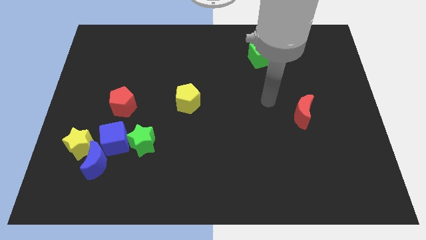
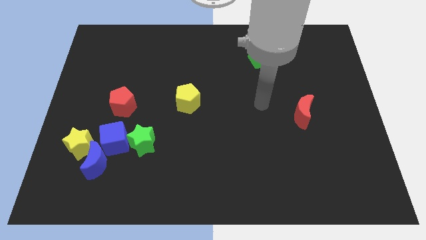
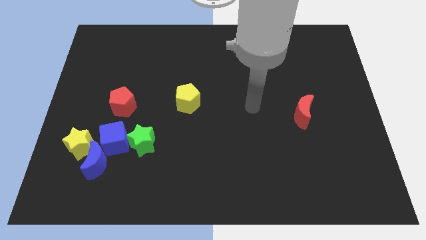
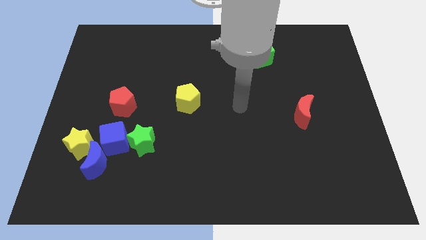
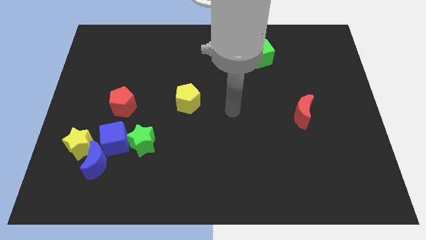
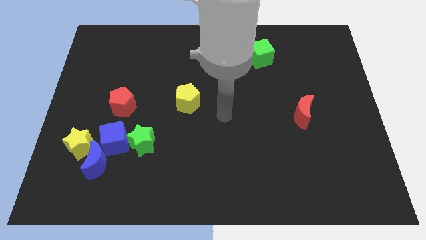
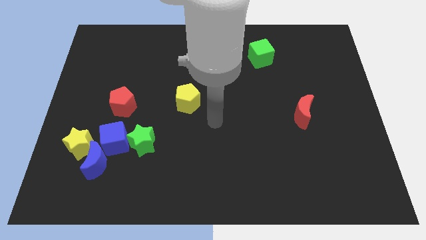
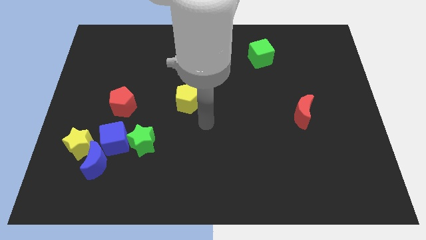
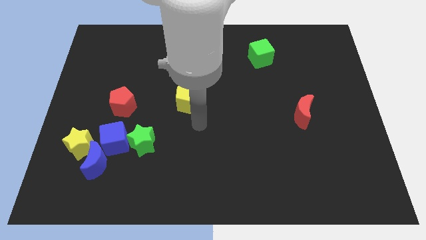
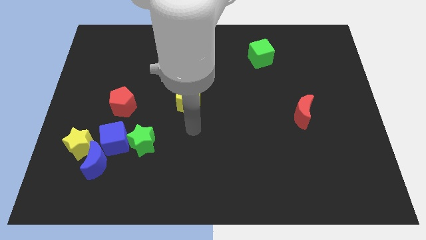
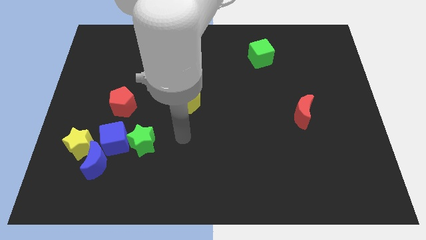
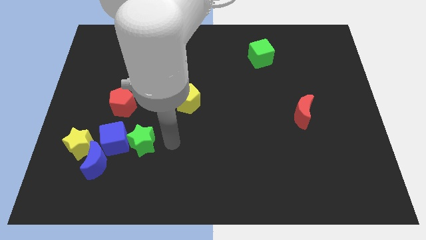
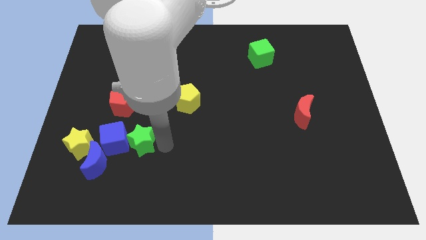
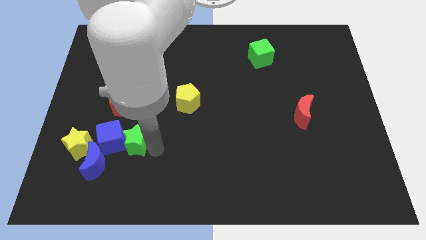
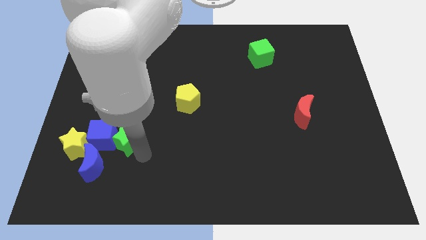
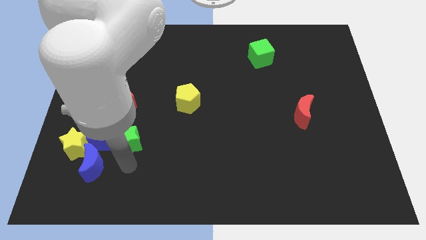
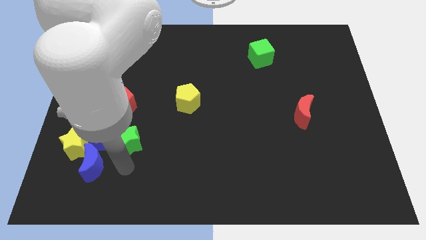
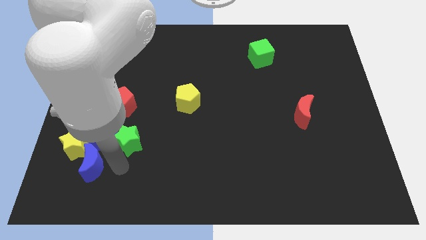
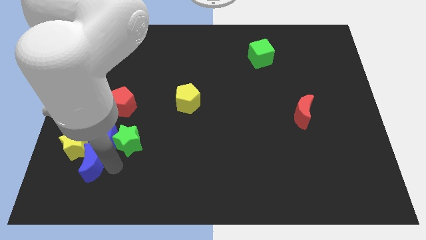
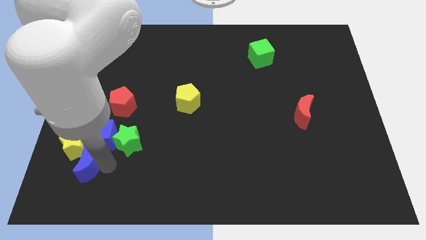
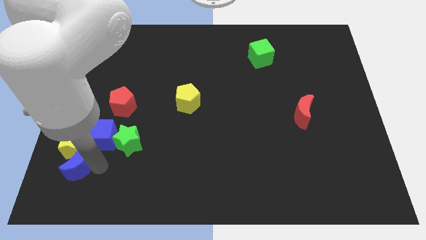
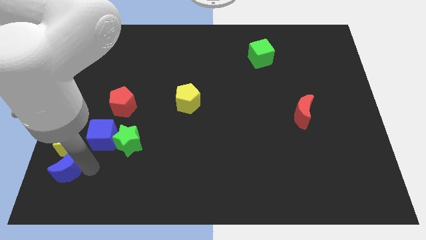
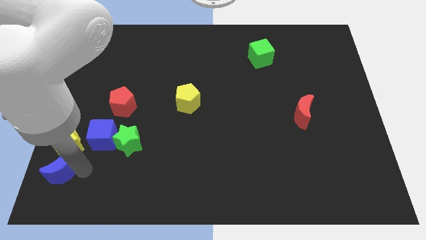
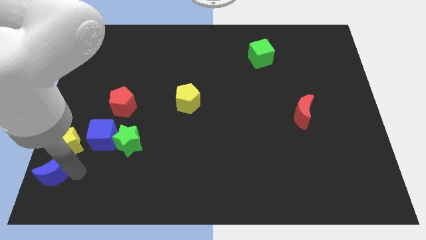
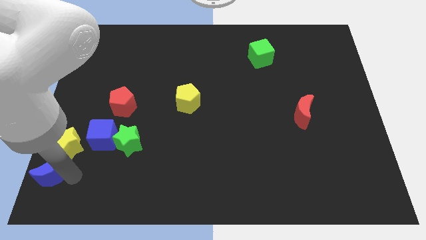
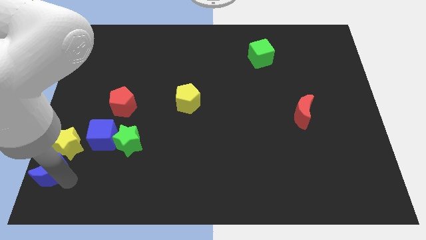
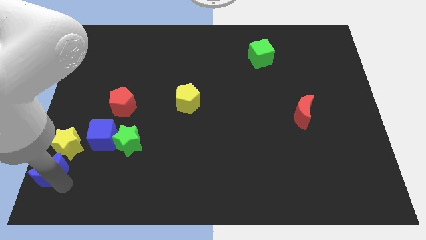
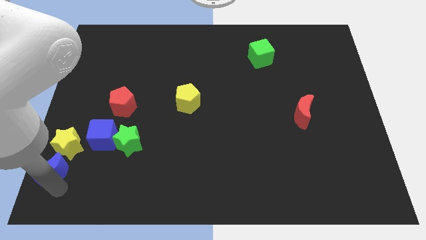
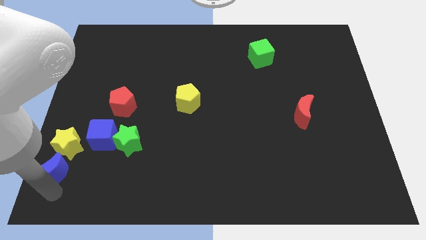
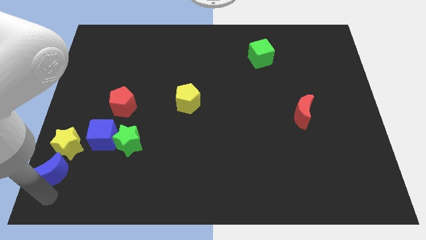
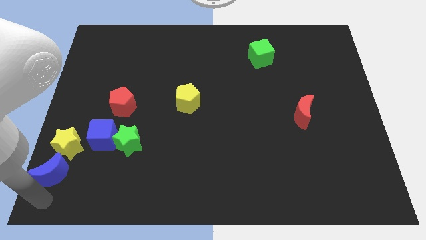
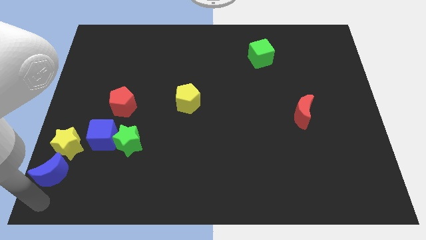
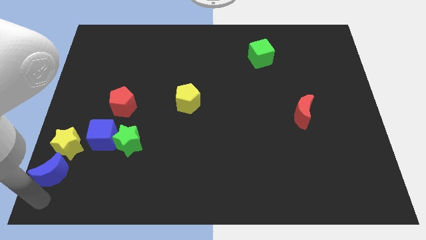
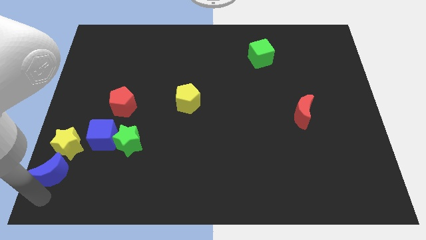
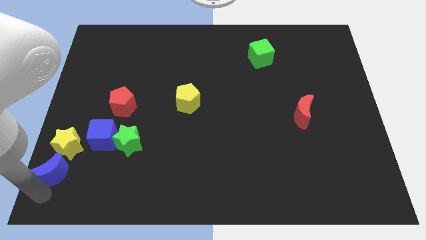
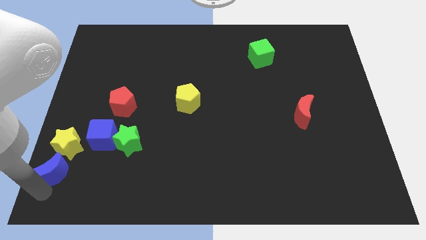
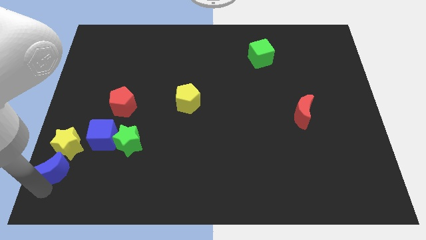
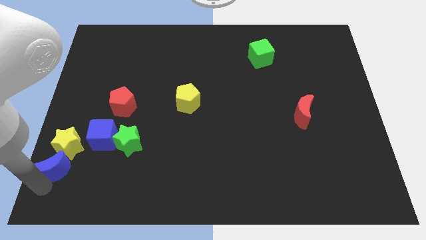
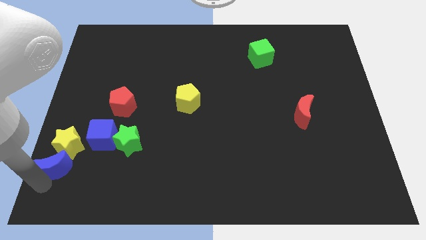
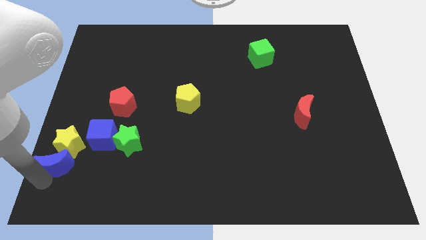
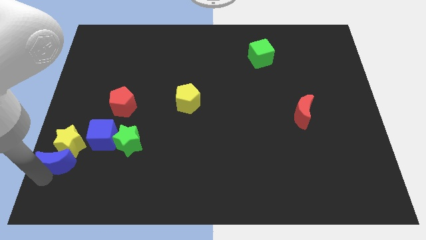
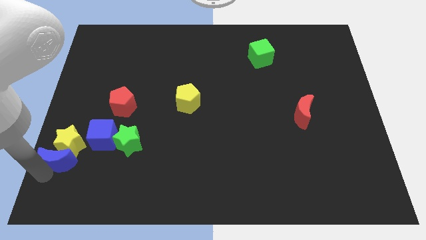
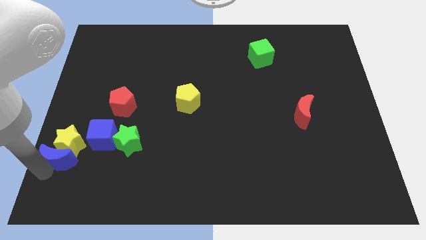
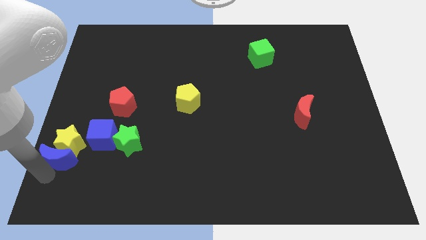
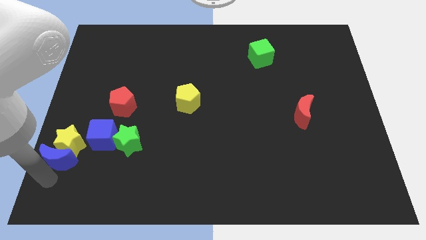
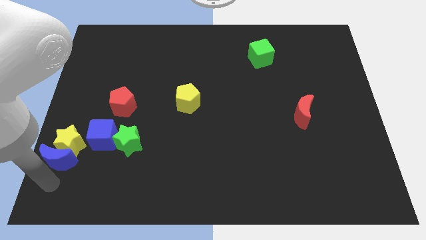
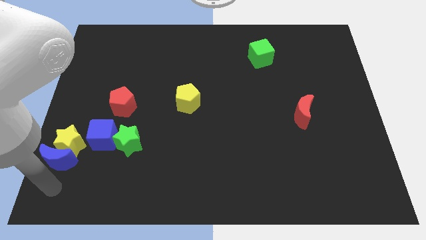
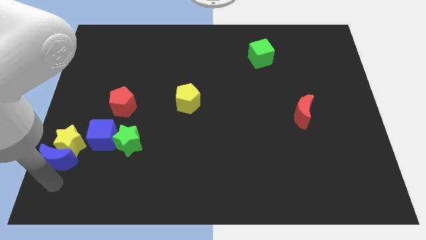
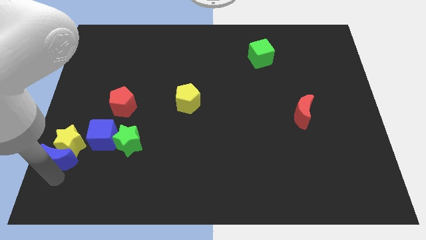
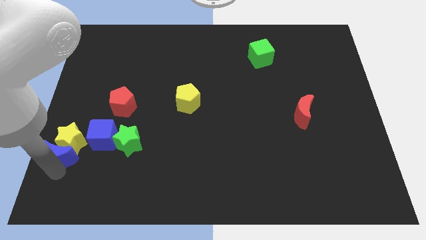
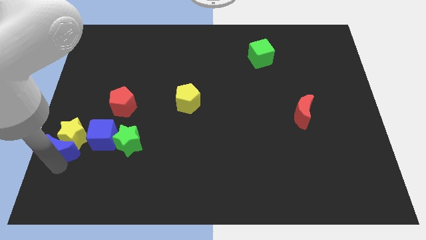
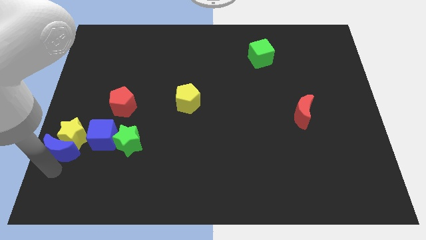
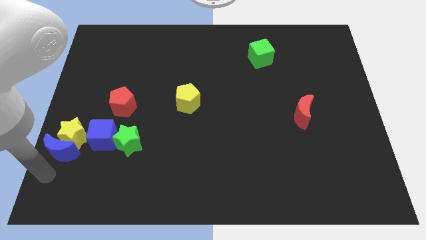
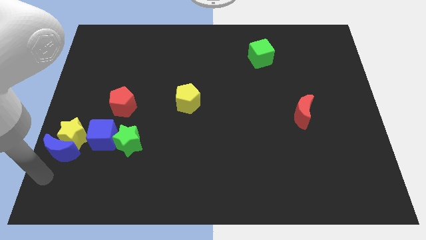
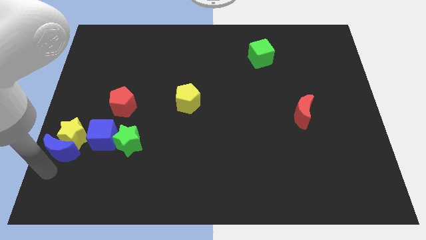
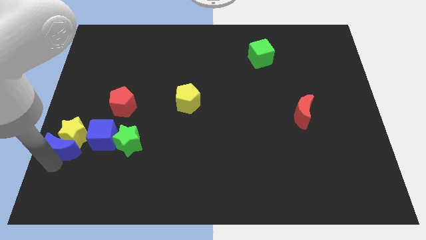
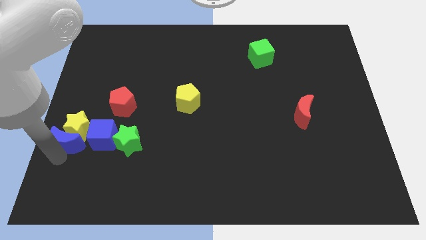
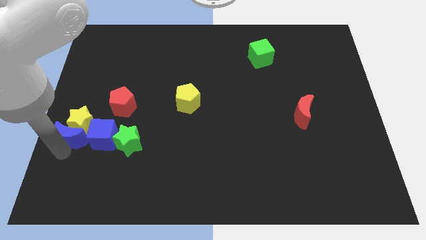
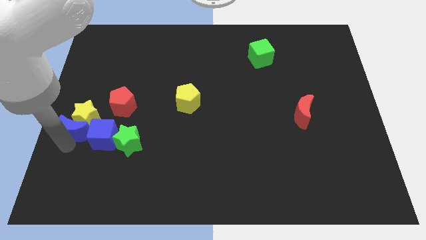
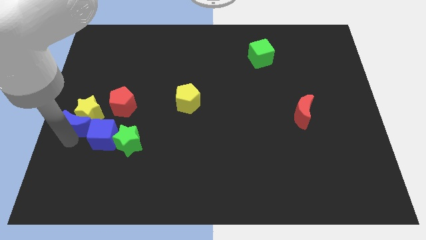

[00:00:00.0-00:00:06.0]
slide the blue moon a little up

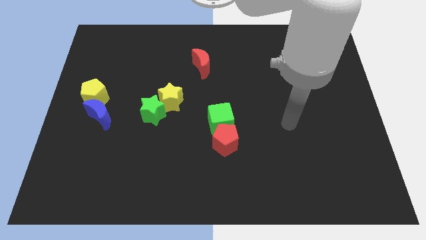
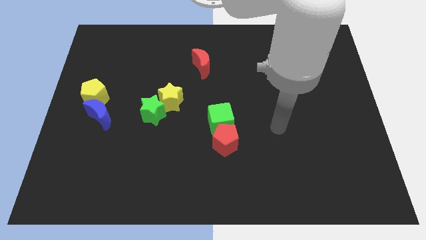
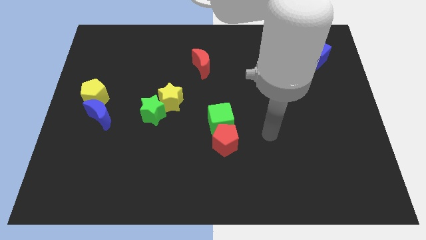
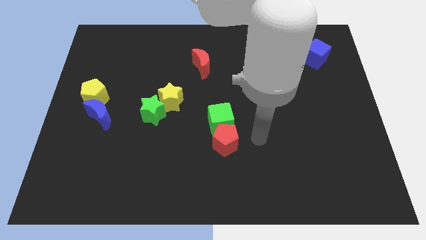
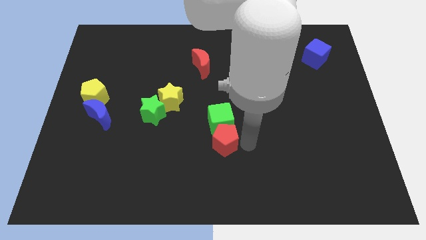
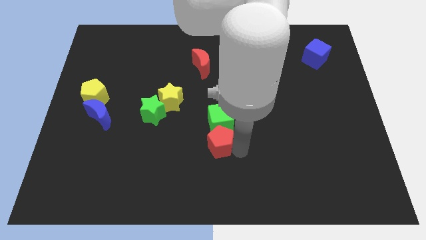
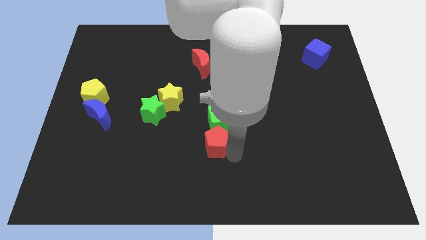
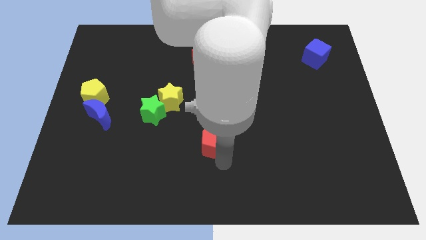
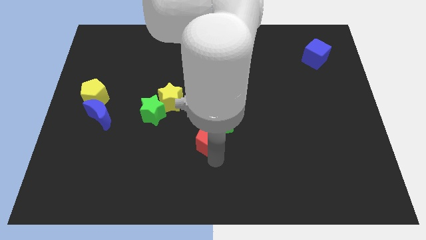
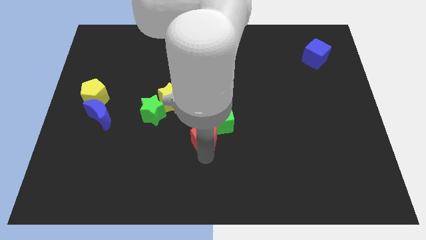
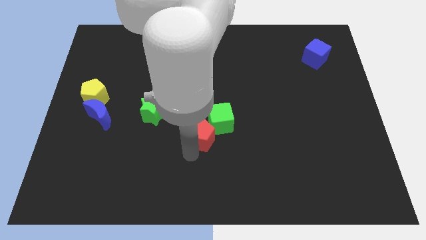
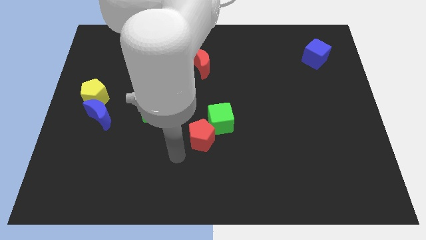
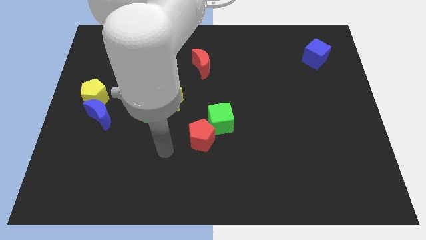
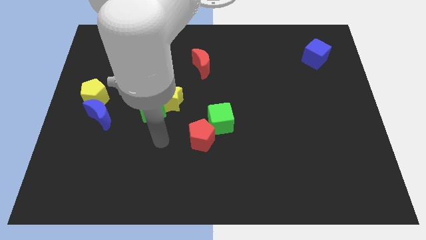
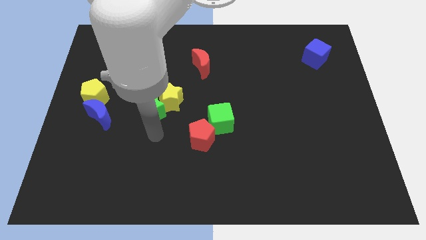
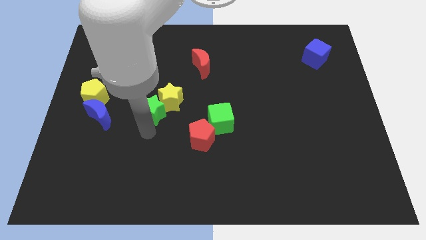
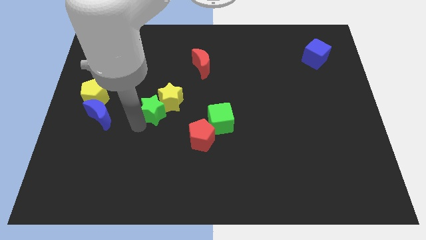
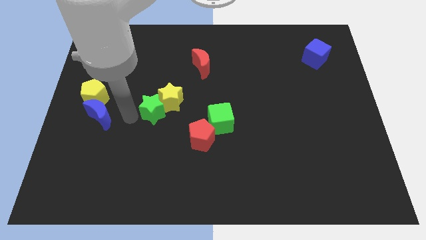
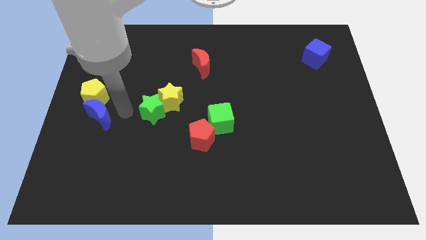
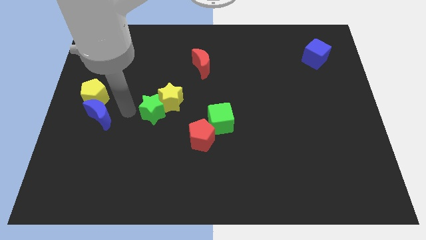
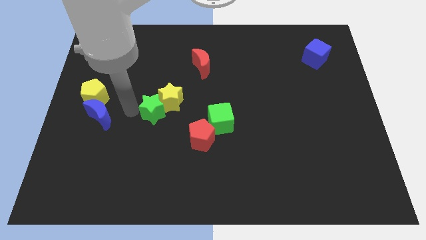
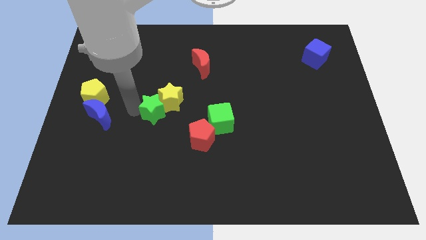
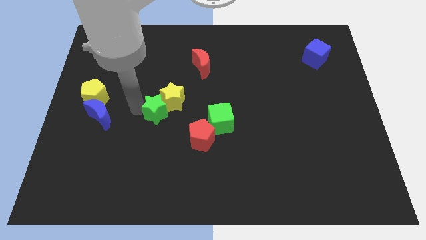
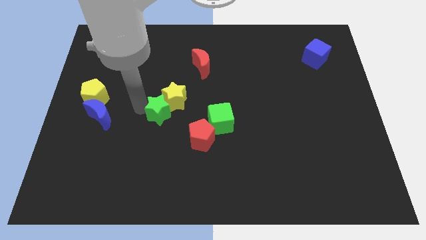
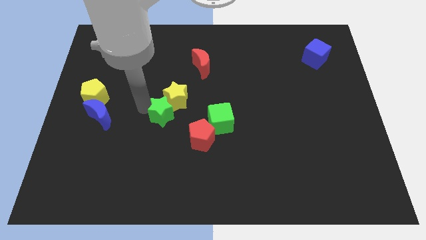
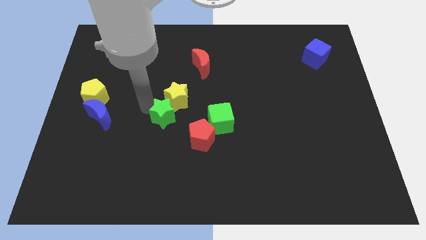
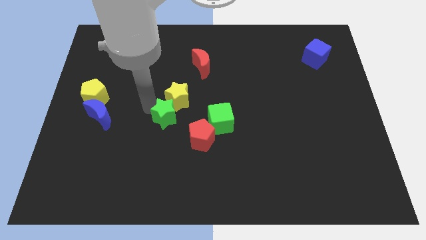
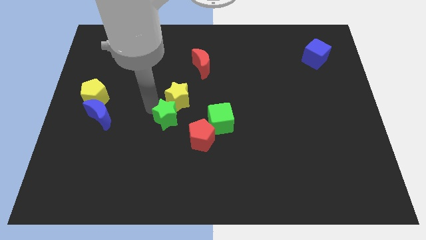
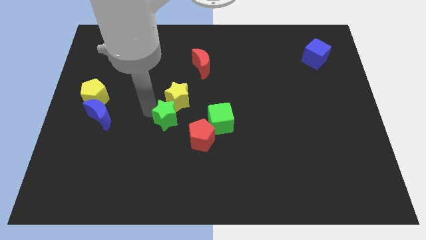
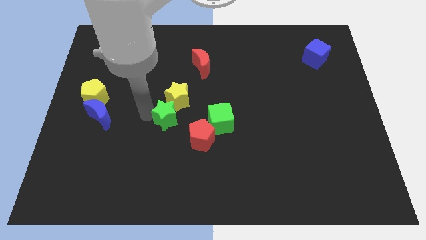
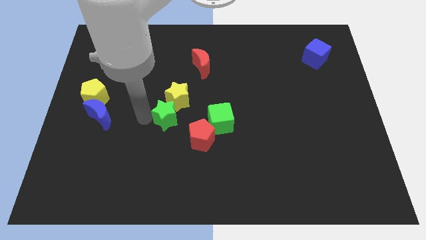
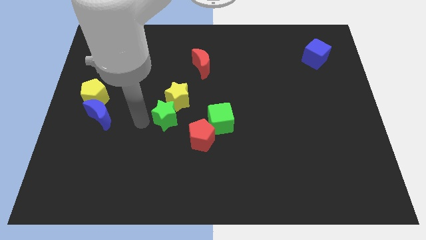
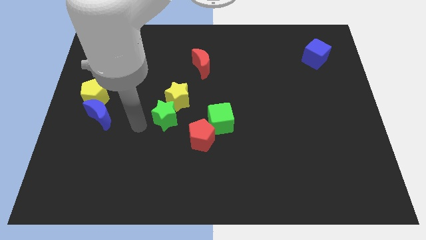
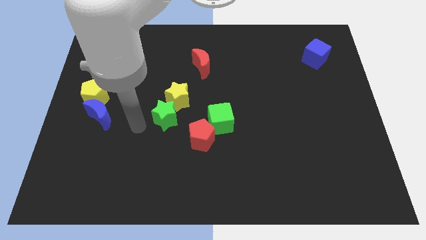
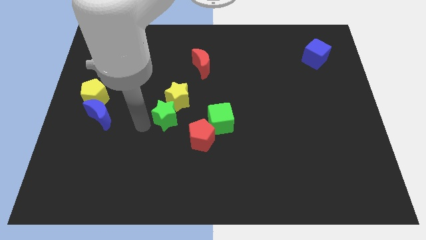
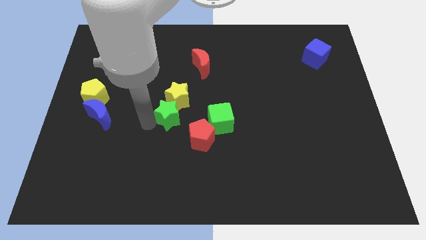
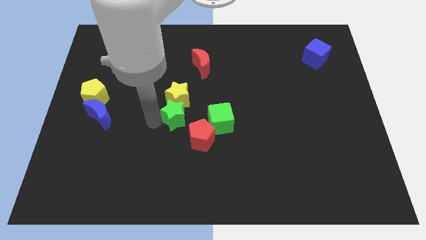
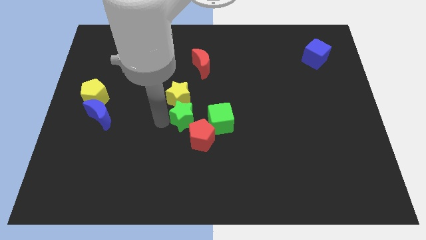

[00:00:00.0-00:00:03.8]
move the green star a bit right
